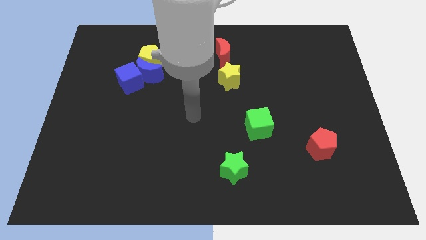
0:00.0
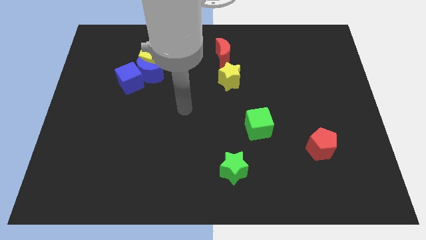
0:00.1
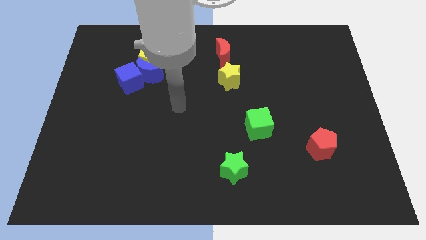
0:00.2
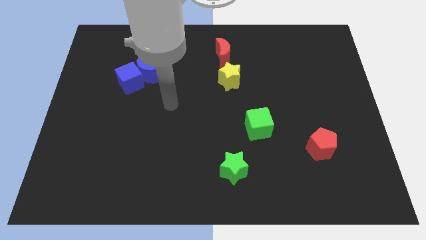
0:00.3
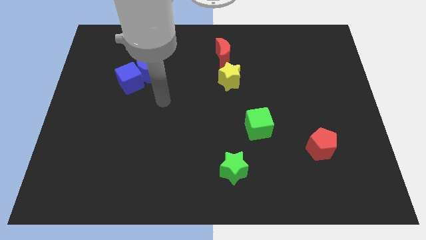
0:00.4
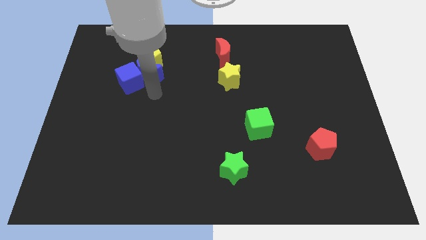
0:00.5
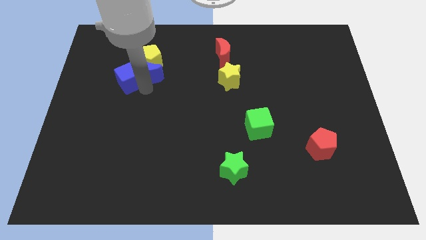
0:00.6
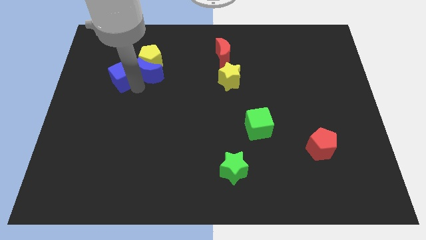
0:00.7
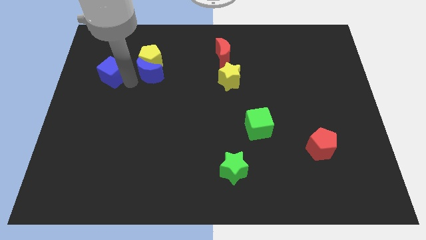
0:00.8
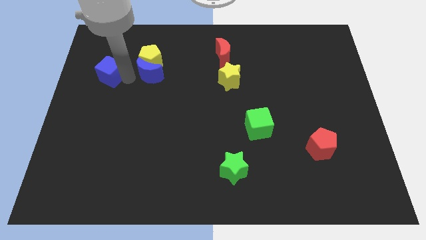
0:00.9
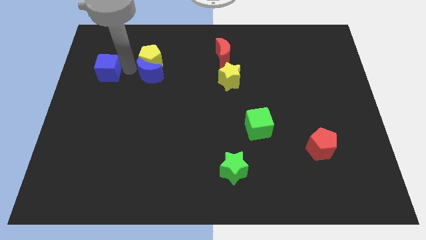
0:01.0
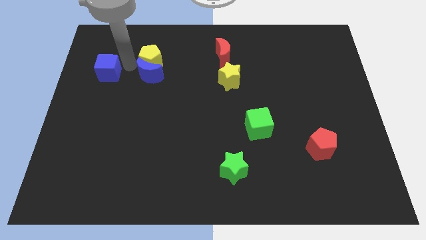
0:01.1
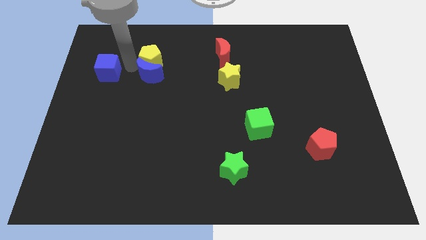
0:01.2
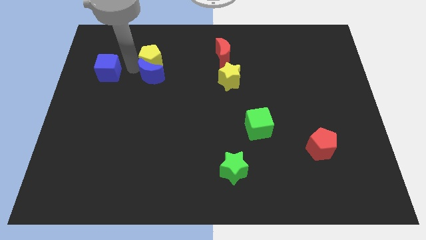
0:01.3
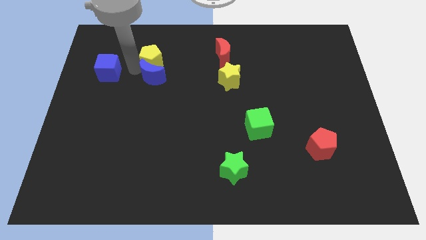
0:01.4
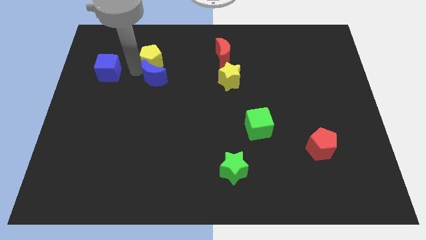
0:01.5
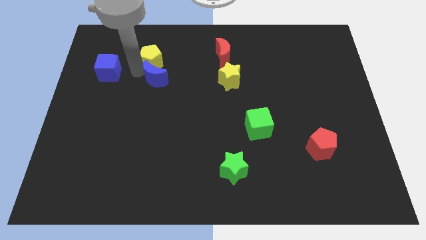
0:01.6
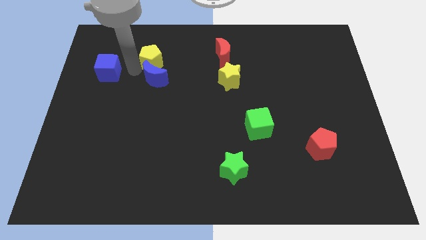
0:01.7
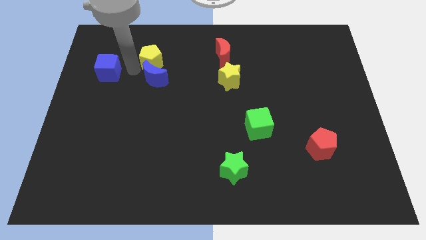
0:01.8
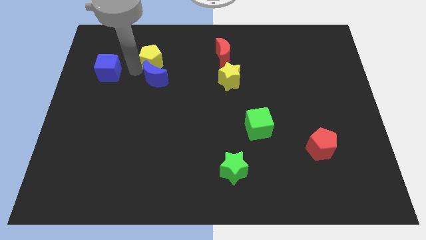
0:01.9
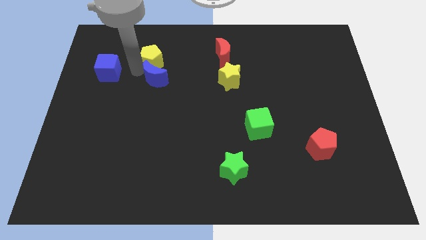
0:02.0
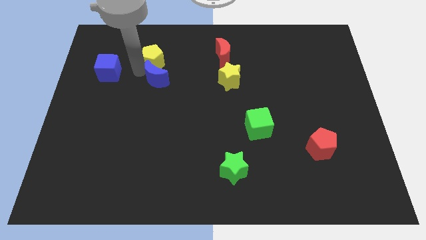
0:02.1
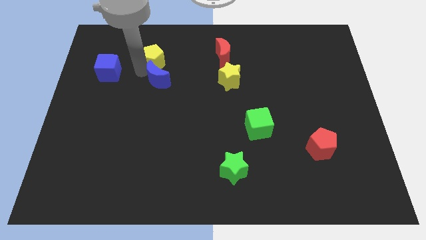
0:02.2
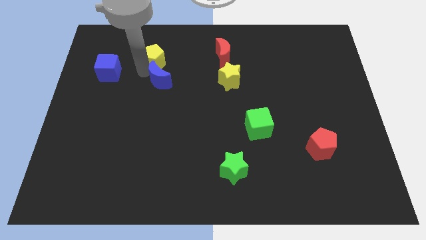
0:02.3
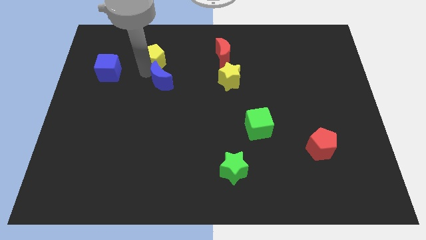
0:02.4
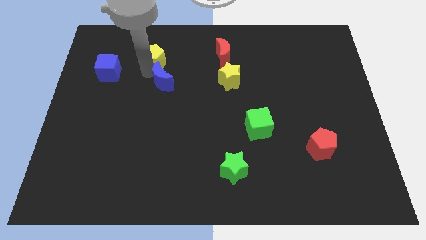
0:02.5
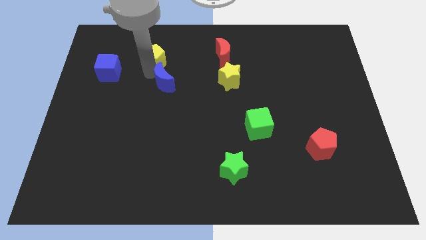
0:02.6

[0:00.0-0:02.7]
pull the blue moon apart from the yellow pentagon and blue cube

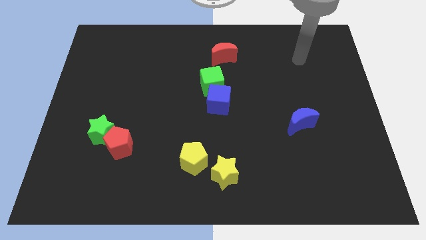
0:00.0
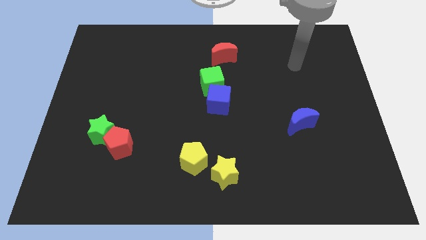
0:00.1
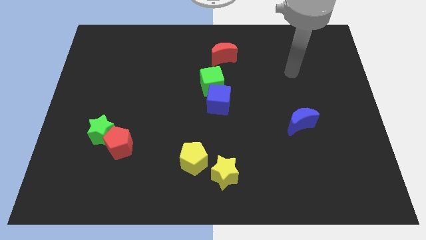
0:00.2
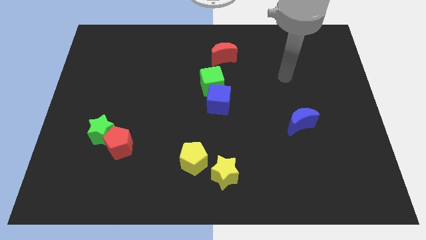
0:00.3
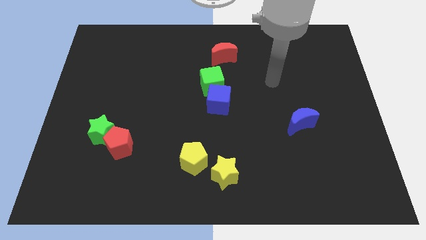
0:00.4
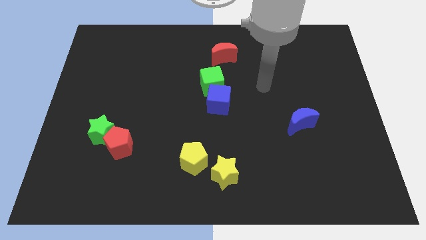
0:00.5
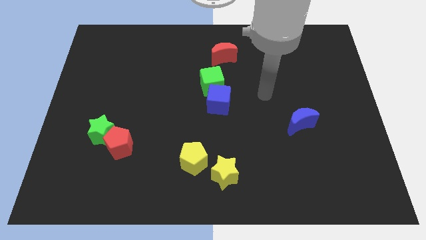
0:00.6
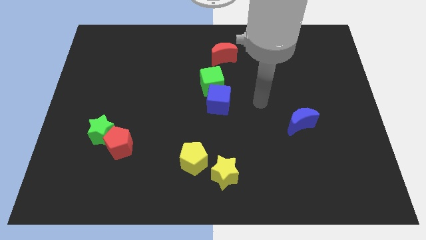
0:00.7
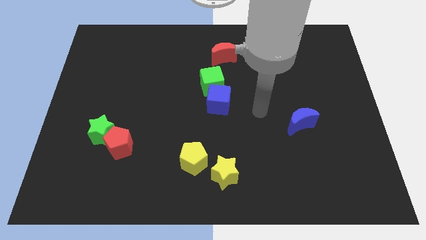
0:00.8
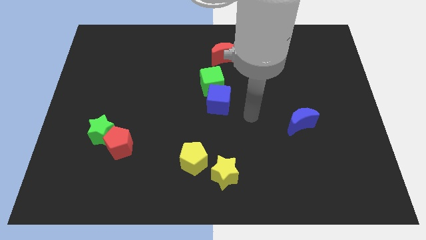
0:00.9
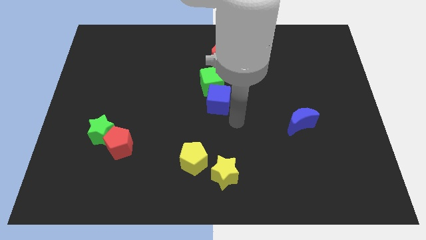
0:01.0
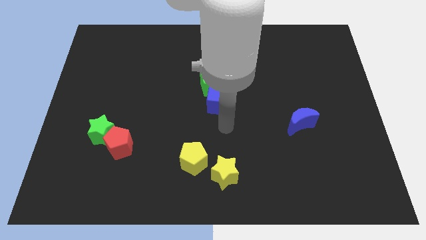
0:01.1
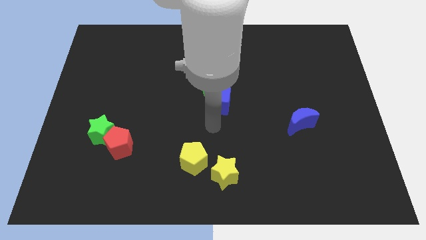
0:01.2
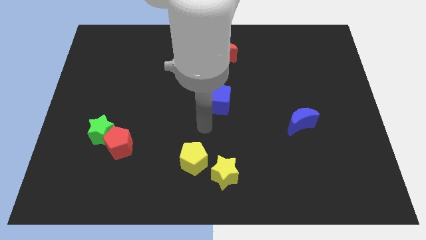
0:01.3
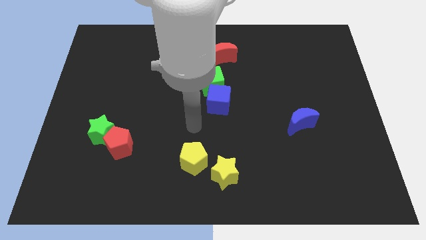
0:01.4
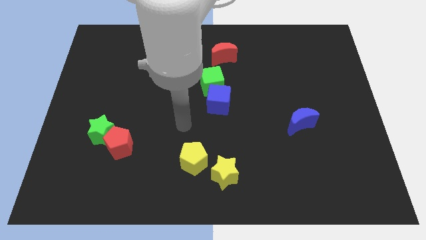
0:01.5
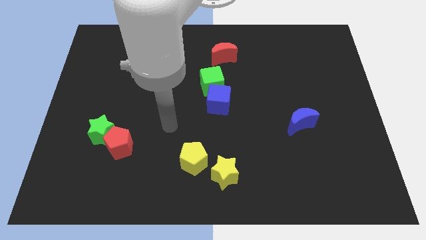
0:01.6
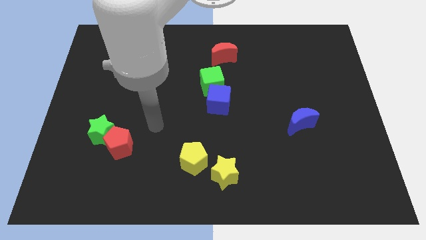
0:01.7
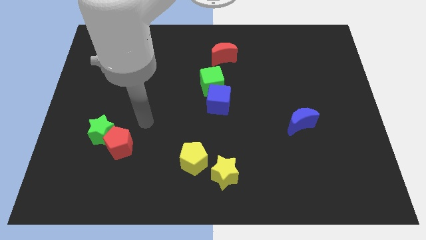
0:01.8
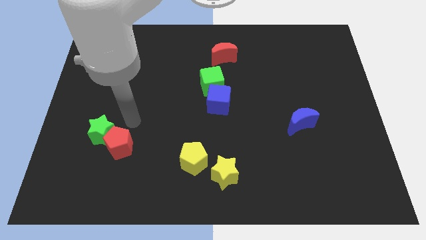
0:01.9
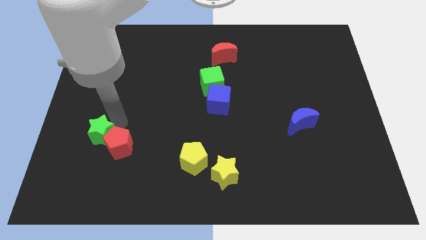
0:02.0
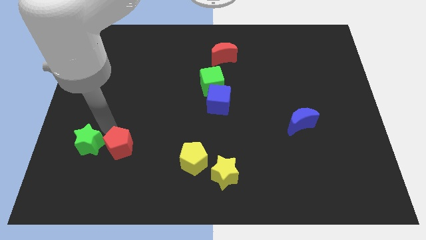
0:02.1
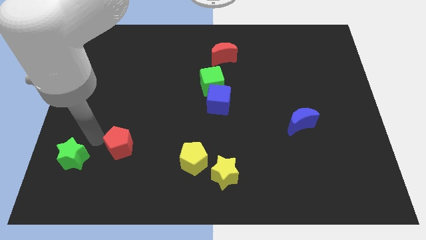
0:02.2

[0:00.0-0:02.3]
move the red pentagon away from the green star

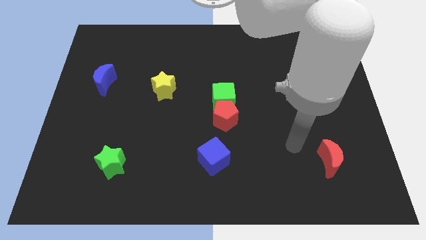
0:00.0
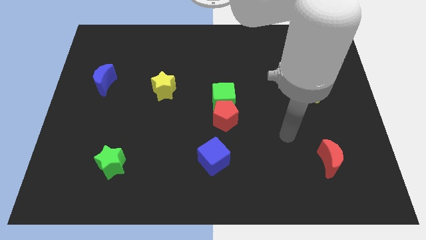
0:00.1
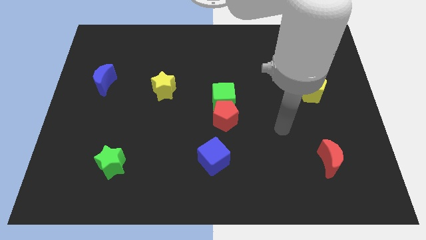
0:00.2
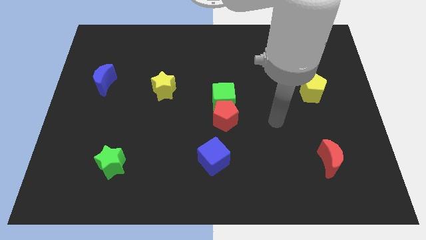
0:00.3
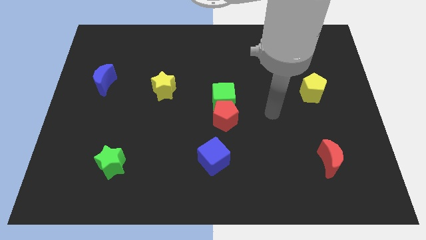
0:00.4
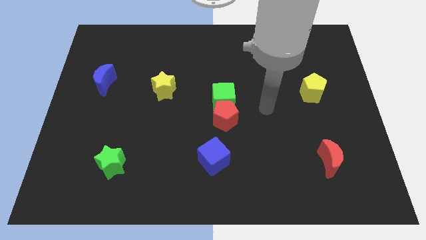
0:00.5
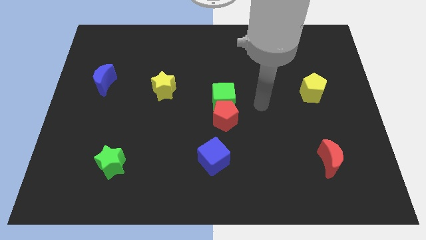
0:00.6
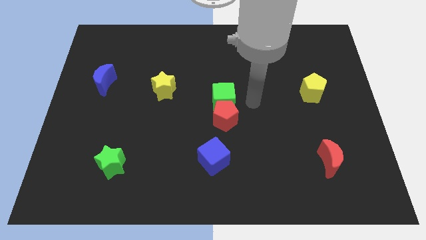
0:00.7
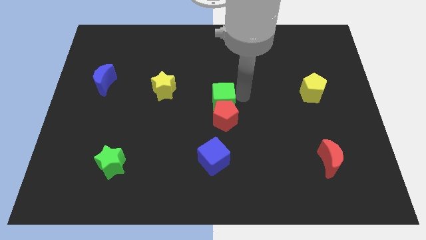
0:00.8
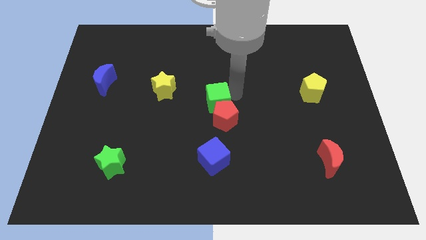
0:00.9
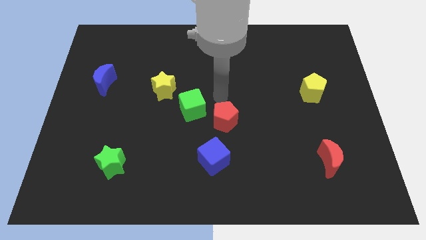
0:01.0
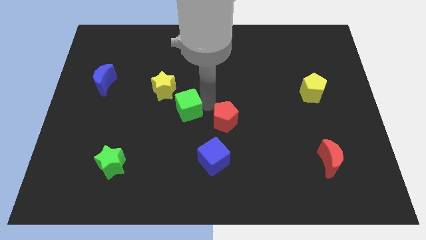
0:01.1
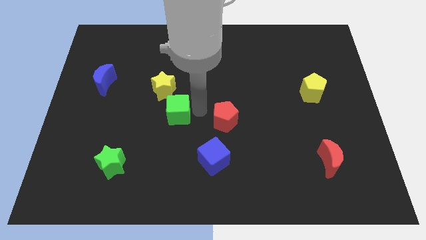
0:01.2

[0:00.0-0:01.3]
pull the red pentagon apart from the green cube

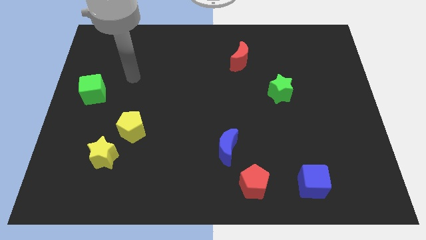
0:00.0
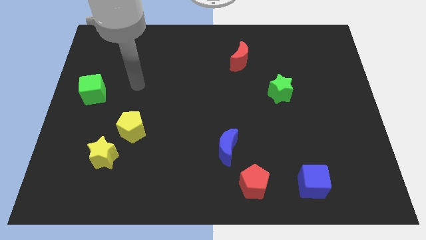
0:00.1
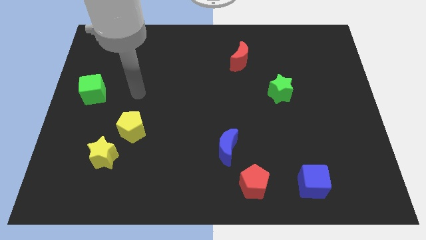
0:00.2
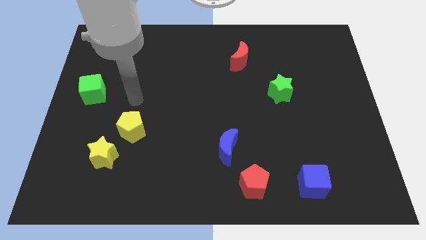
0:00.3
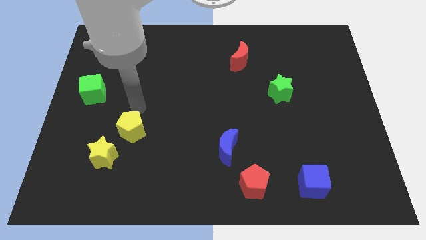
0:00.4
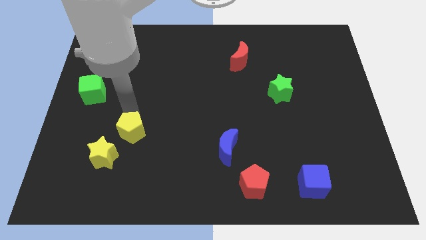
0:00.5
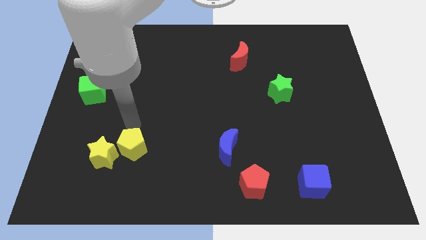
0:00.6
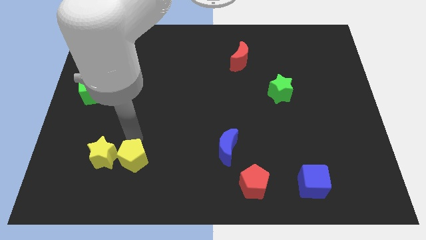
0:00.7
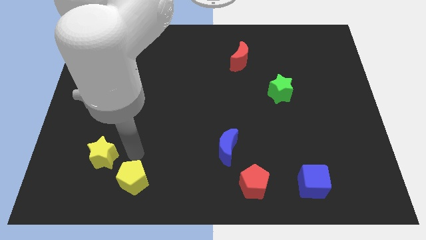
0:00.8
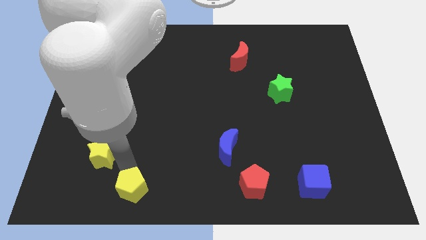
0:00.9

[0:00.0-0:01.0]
separate the yellow star from the yellow pentagon

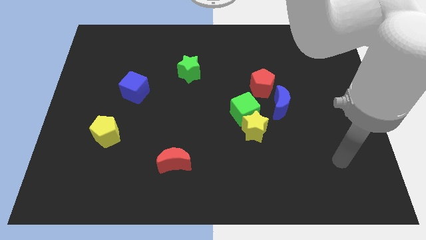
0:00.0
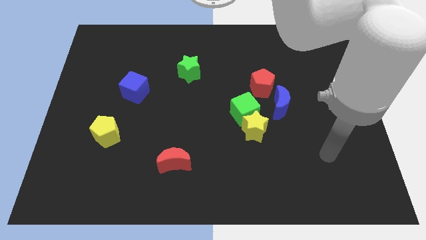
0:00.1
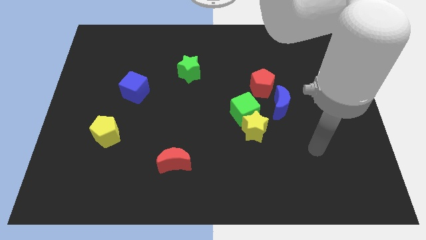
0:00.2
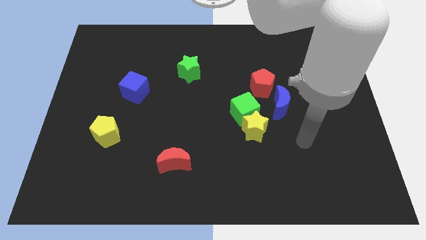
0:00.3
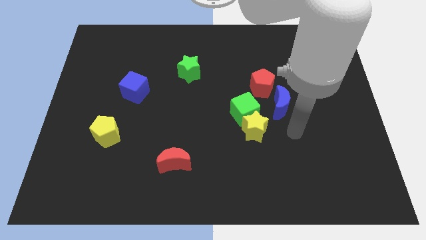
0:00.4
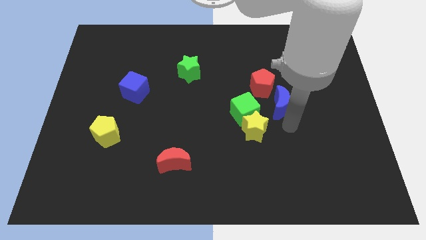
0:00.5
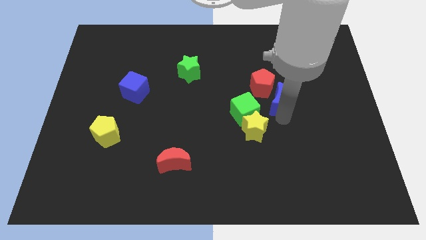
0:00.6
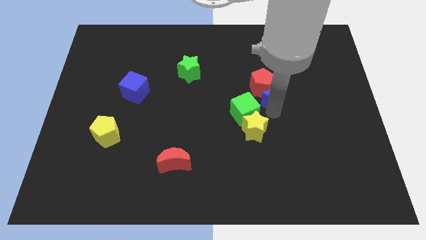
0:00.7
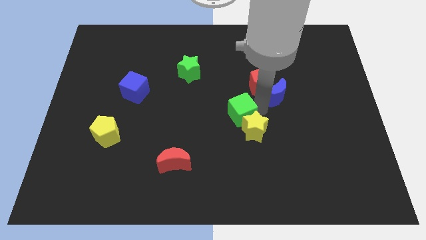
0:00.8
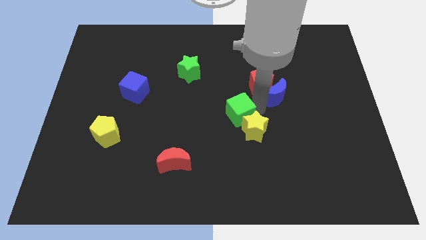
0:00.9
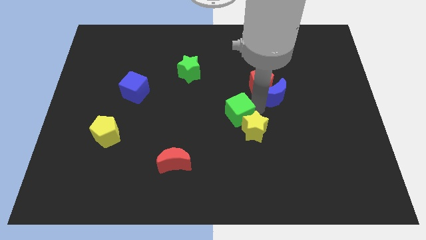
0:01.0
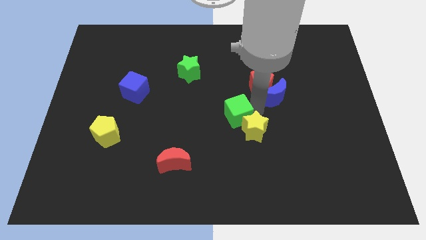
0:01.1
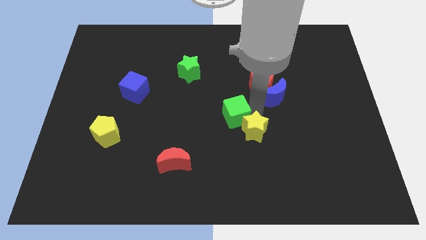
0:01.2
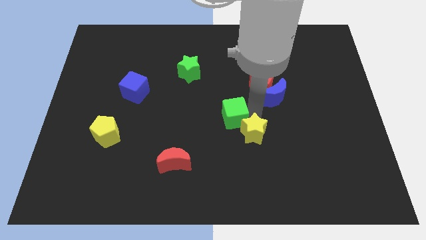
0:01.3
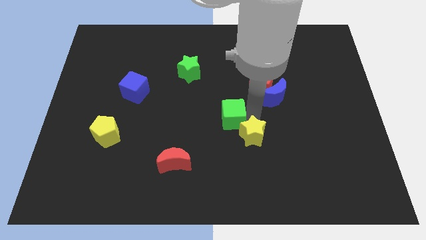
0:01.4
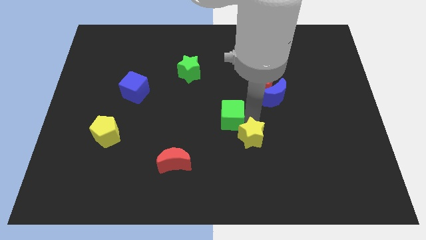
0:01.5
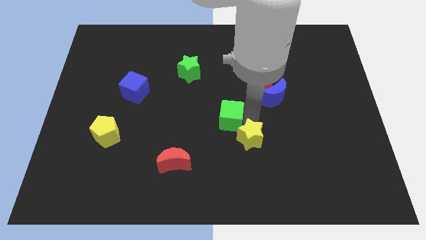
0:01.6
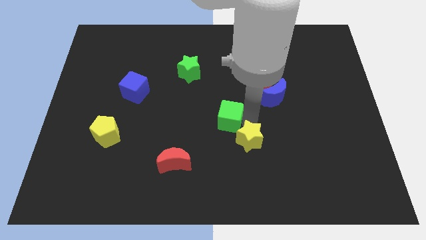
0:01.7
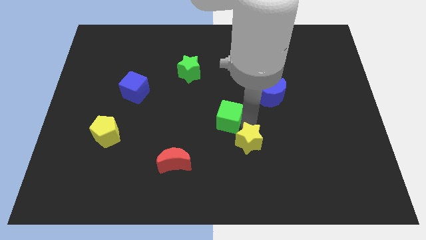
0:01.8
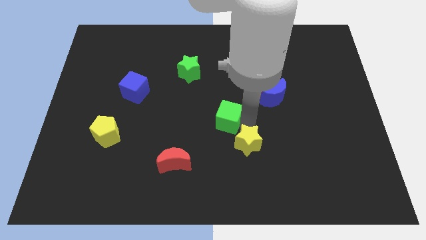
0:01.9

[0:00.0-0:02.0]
move the yellow star away from the green cube and blue moon
